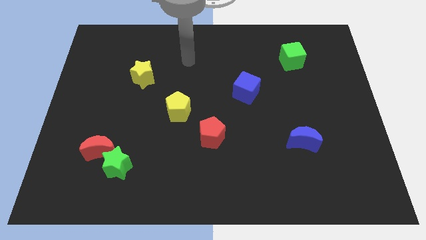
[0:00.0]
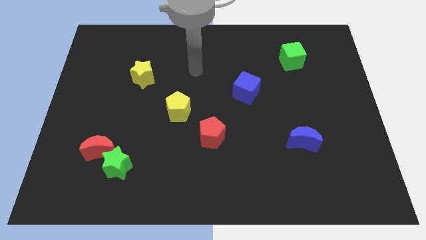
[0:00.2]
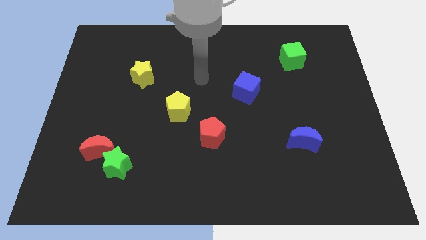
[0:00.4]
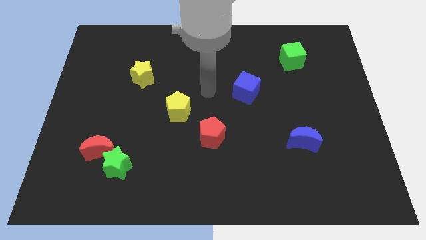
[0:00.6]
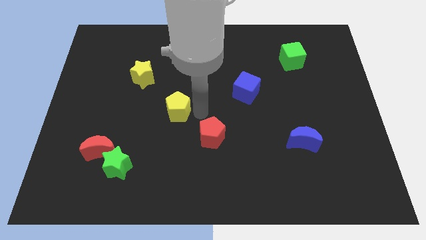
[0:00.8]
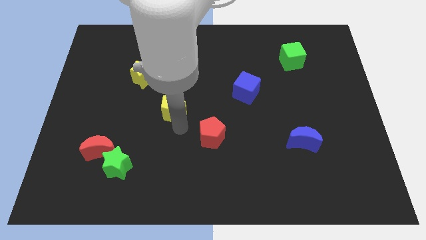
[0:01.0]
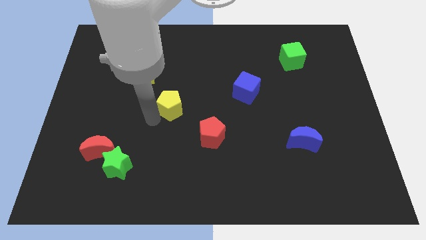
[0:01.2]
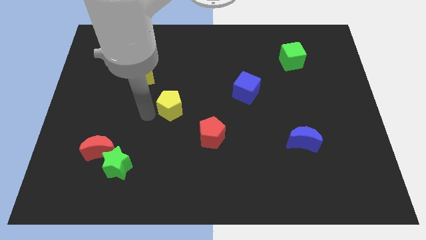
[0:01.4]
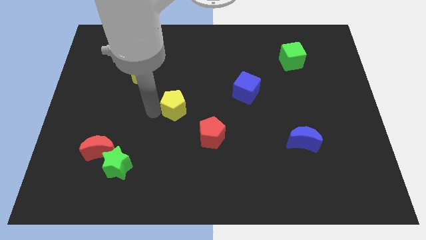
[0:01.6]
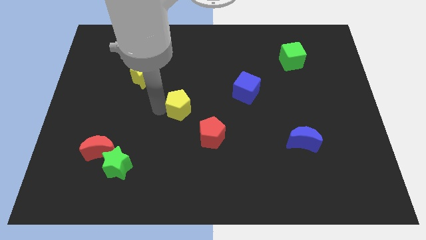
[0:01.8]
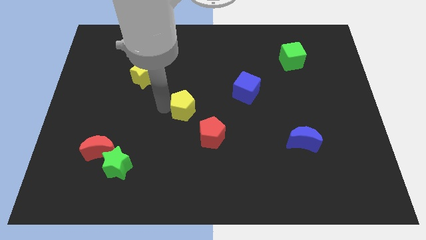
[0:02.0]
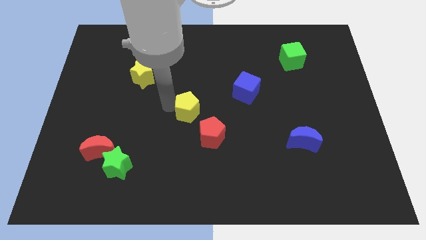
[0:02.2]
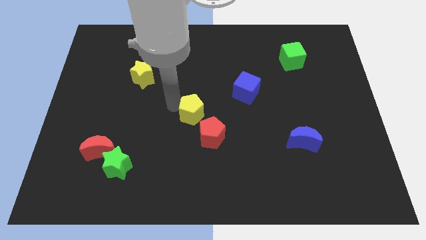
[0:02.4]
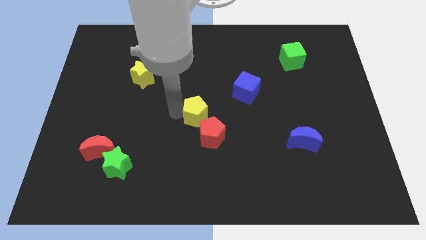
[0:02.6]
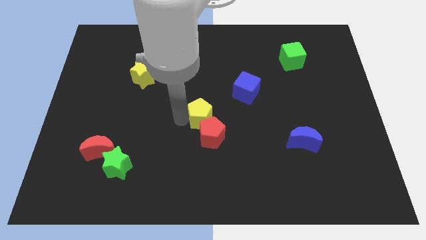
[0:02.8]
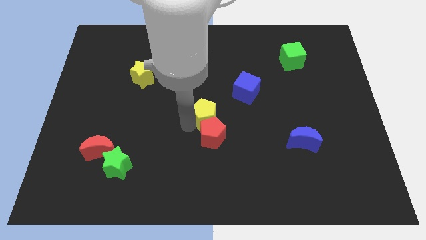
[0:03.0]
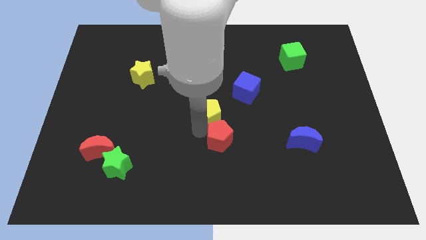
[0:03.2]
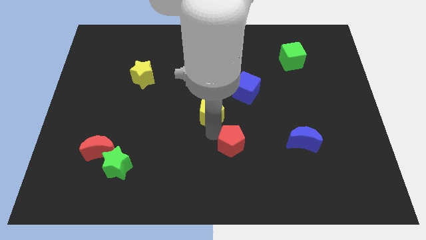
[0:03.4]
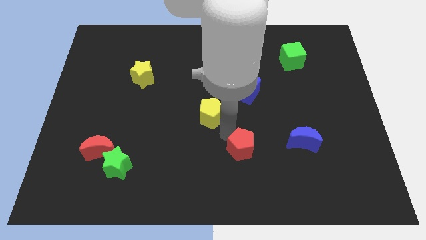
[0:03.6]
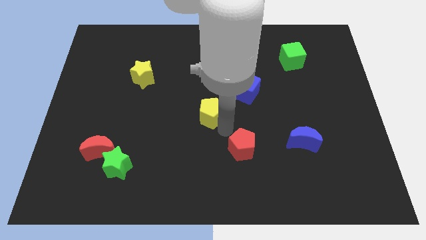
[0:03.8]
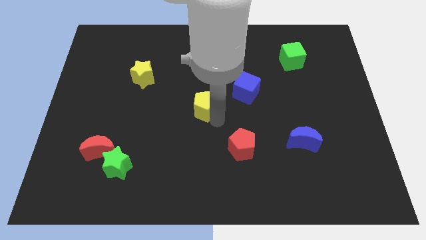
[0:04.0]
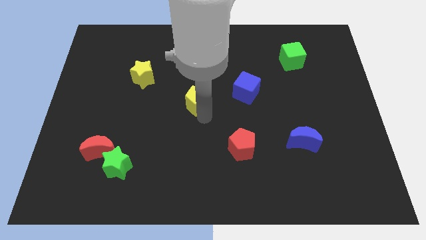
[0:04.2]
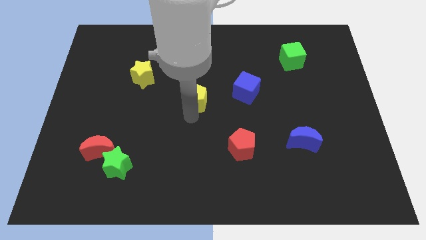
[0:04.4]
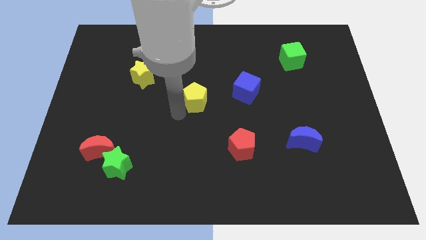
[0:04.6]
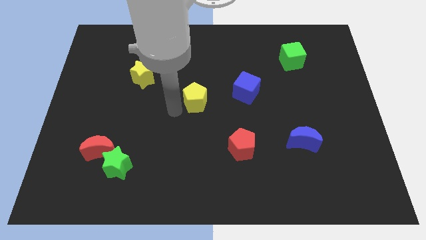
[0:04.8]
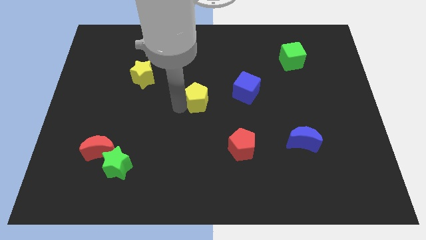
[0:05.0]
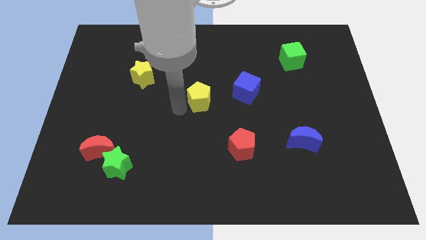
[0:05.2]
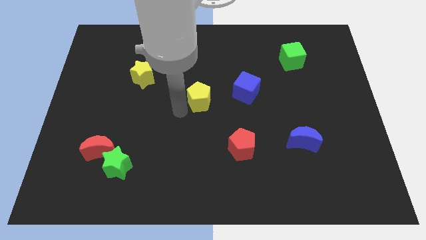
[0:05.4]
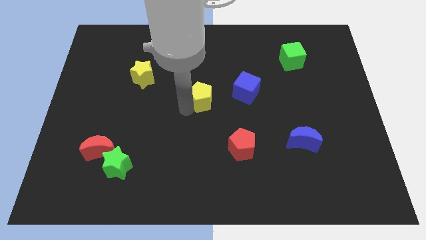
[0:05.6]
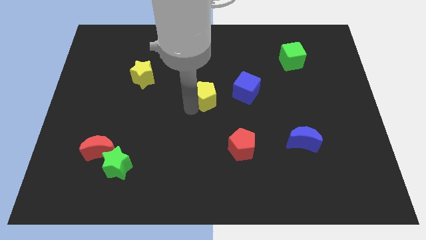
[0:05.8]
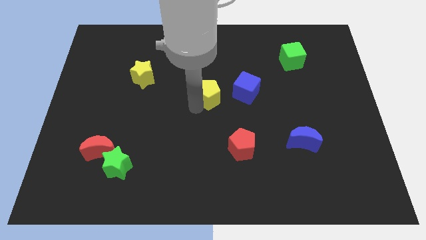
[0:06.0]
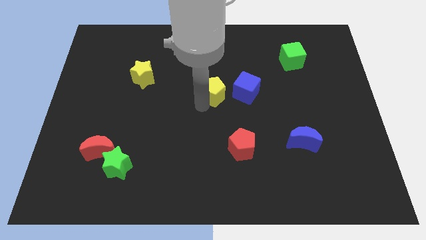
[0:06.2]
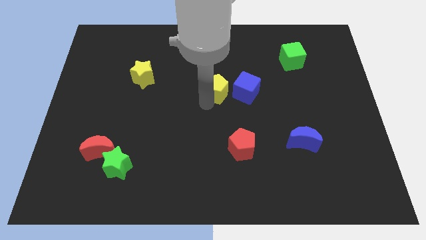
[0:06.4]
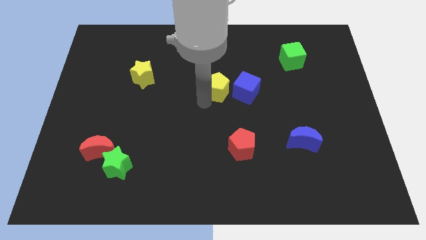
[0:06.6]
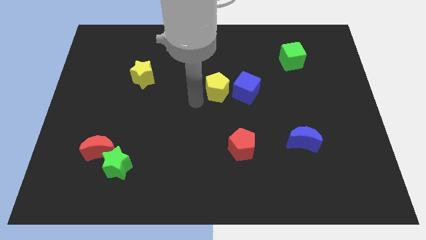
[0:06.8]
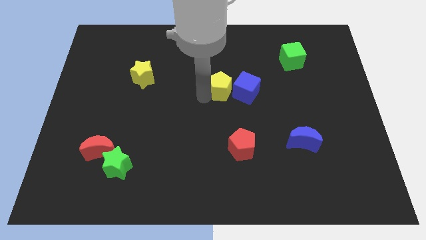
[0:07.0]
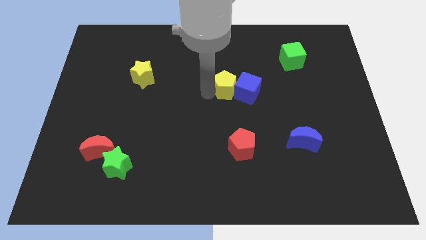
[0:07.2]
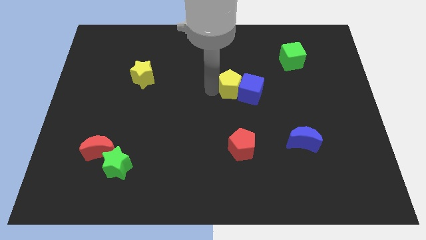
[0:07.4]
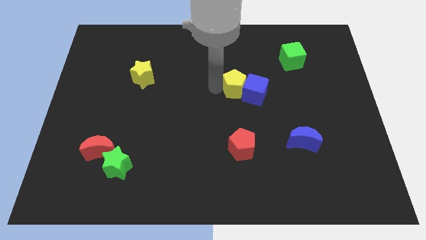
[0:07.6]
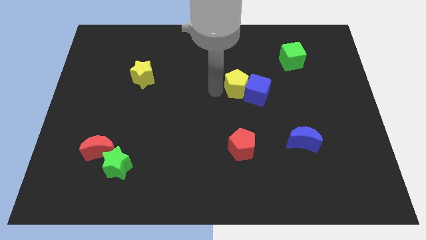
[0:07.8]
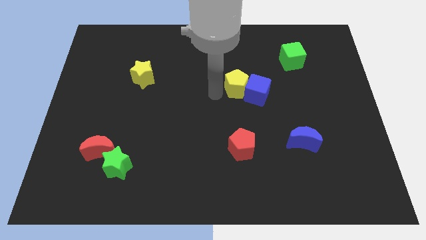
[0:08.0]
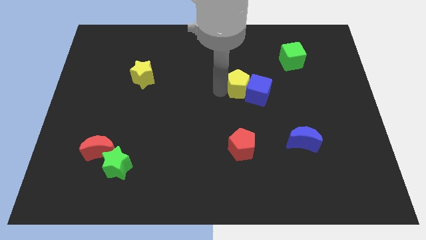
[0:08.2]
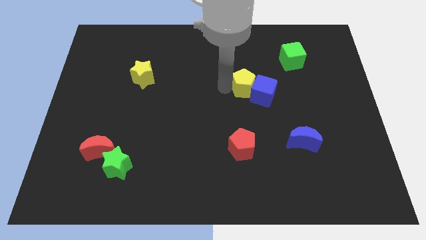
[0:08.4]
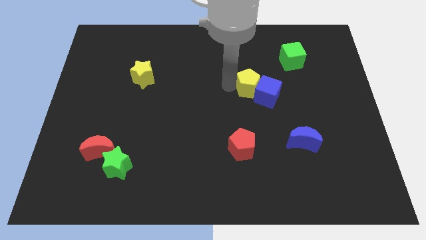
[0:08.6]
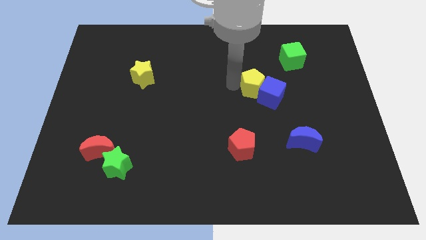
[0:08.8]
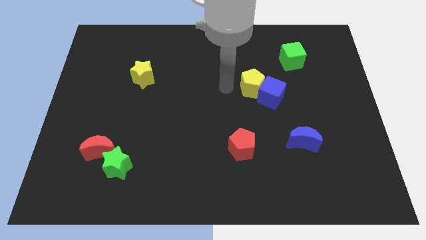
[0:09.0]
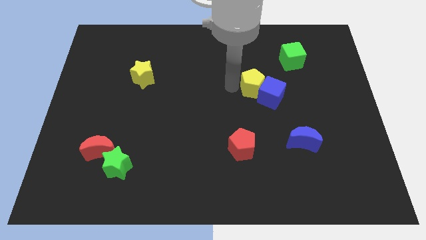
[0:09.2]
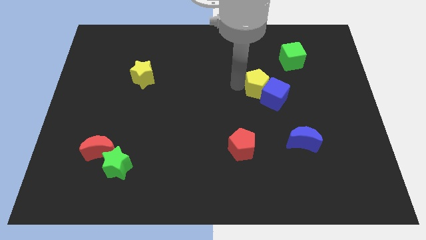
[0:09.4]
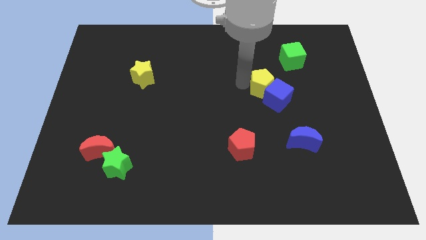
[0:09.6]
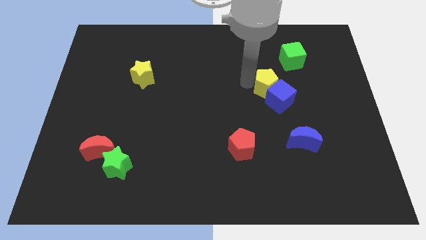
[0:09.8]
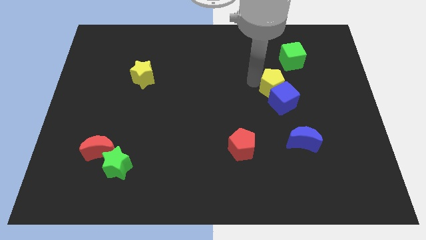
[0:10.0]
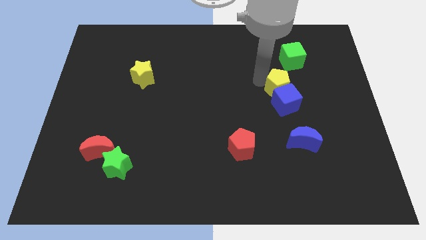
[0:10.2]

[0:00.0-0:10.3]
put the yellow pentagon below the green cube
